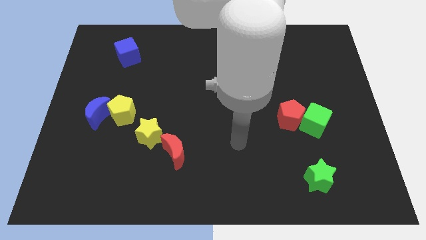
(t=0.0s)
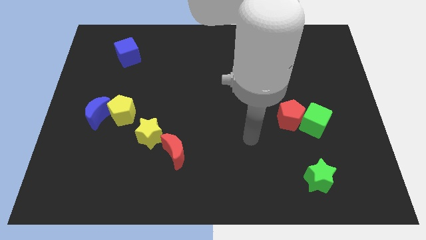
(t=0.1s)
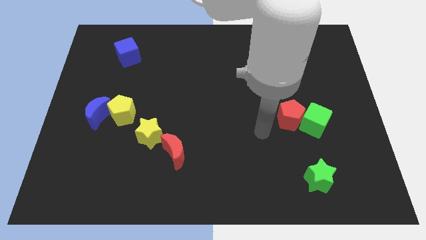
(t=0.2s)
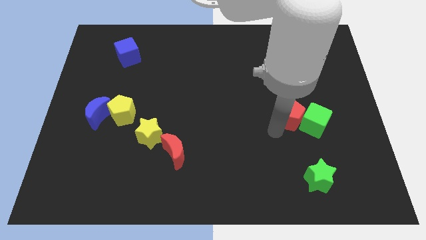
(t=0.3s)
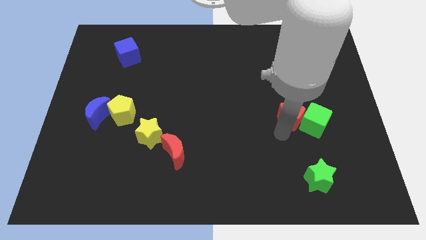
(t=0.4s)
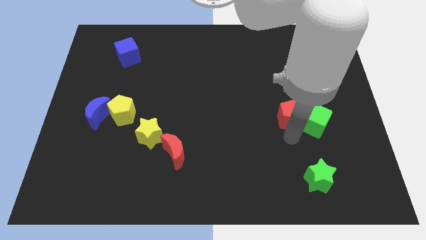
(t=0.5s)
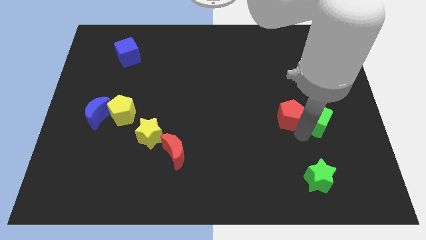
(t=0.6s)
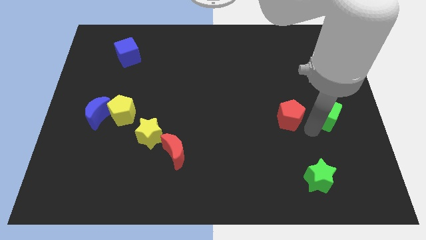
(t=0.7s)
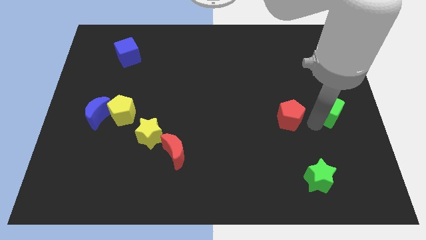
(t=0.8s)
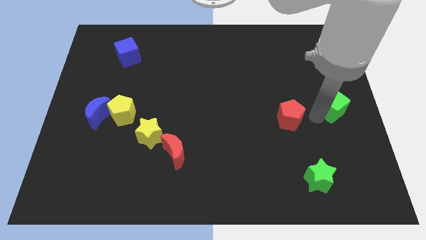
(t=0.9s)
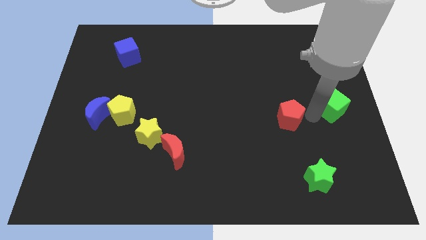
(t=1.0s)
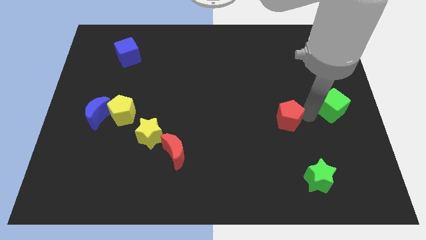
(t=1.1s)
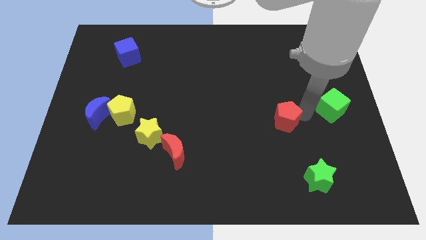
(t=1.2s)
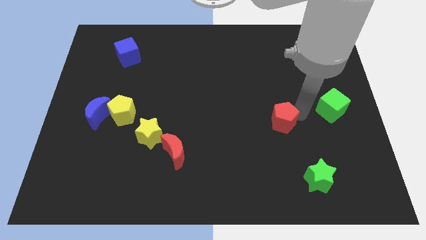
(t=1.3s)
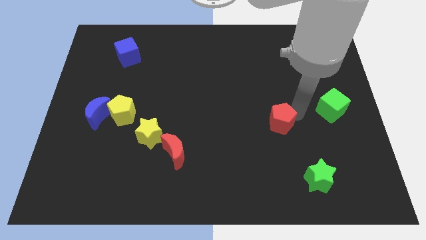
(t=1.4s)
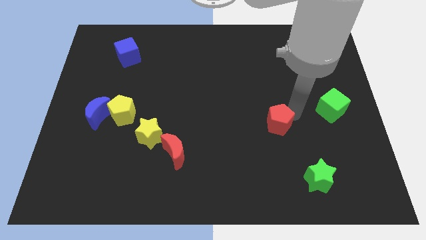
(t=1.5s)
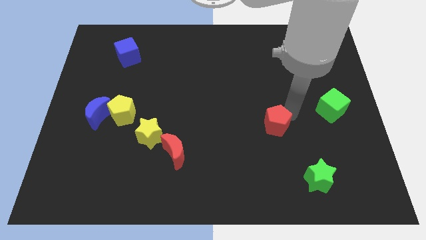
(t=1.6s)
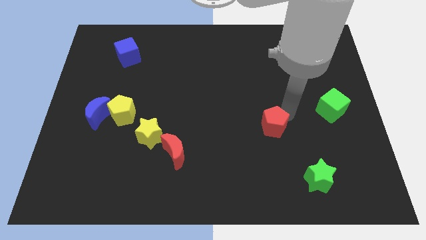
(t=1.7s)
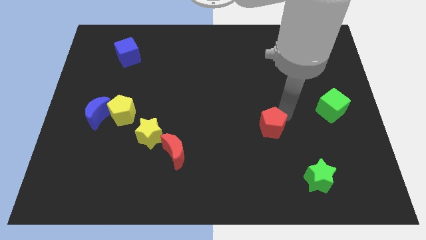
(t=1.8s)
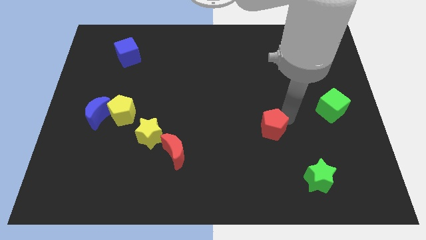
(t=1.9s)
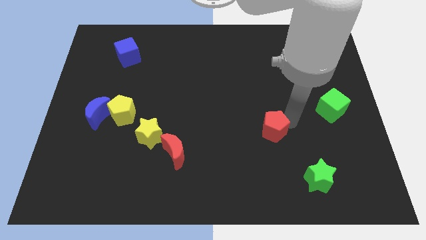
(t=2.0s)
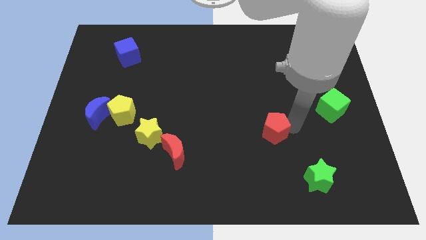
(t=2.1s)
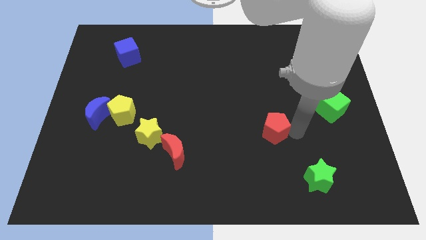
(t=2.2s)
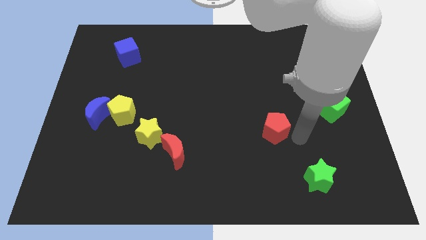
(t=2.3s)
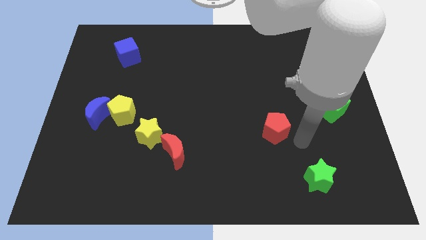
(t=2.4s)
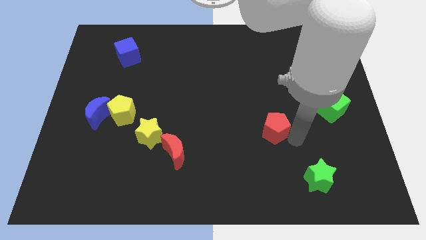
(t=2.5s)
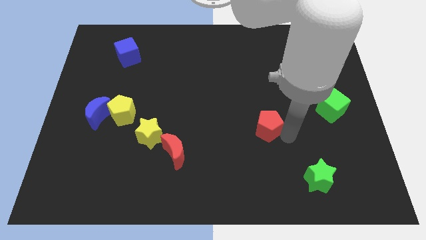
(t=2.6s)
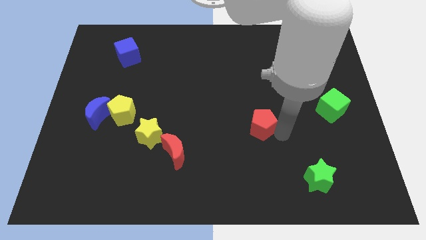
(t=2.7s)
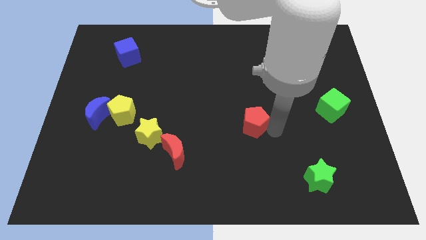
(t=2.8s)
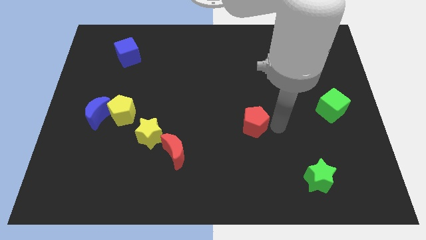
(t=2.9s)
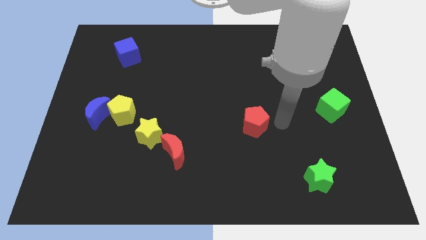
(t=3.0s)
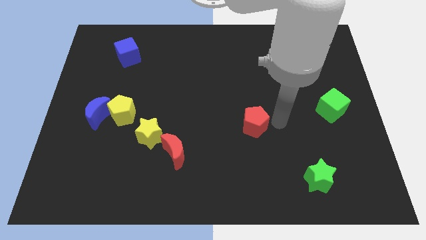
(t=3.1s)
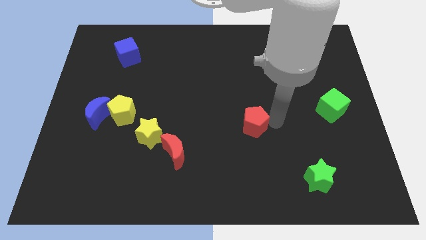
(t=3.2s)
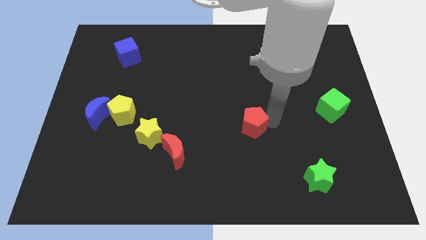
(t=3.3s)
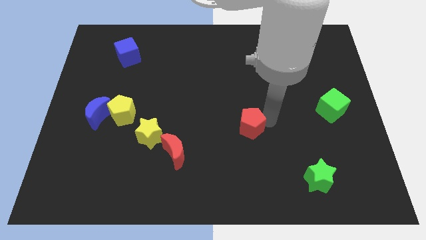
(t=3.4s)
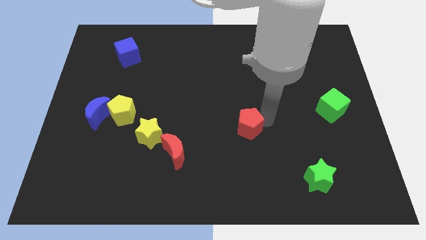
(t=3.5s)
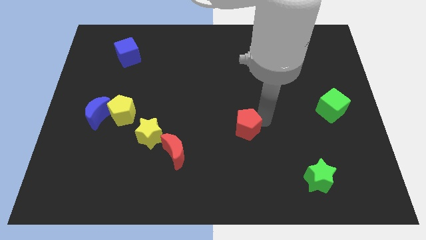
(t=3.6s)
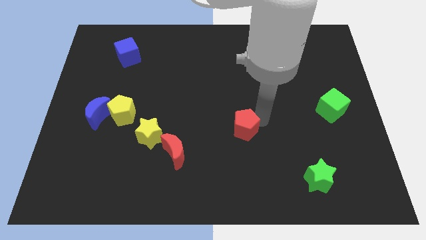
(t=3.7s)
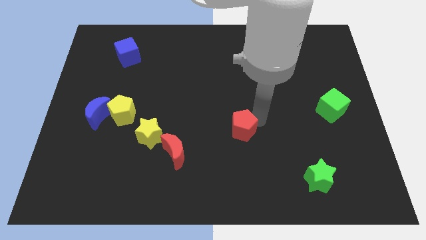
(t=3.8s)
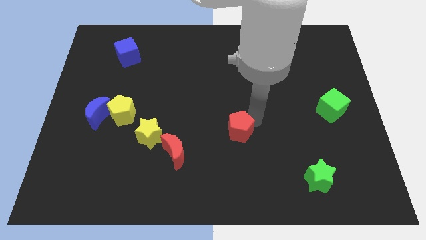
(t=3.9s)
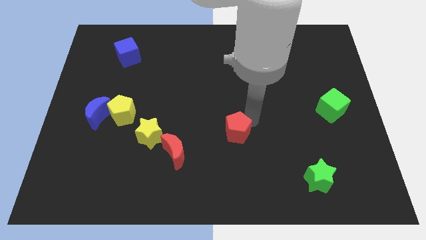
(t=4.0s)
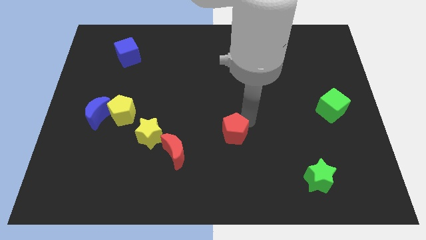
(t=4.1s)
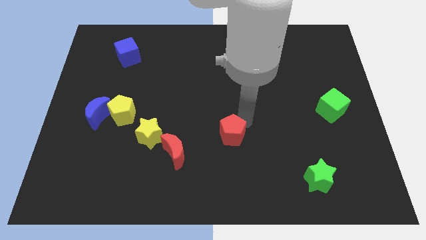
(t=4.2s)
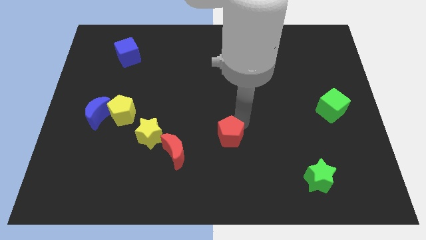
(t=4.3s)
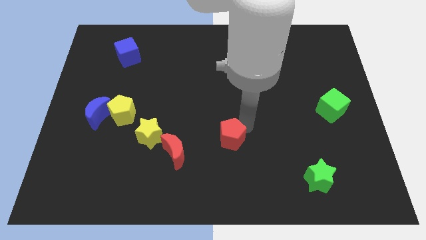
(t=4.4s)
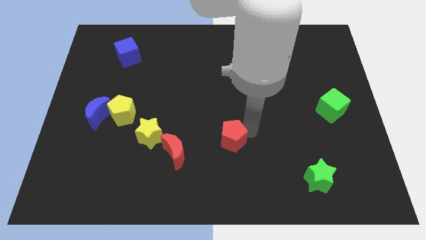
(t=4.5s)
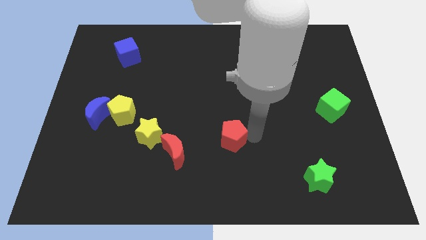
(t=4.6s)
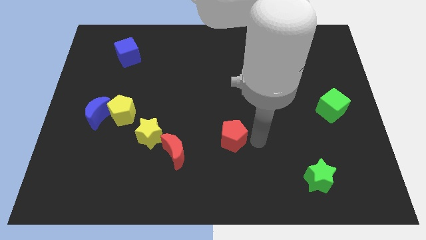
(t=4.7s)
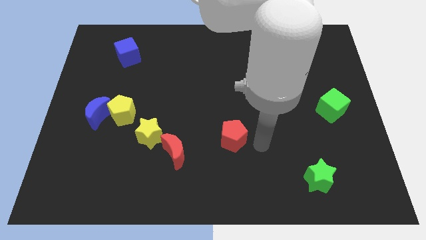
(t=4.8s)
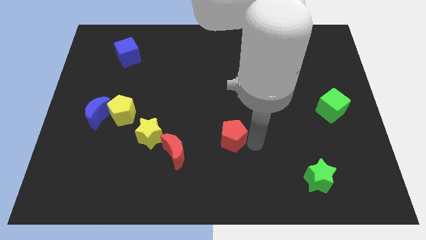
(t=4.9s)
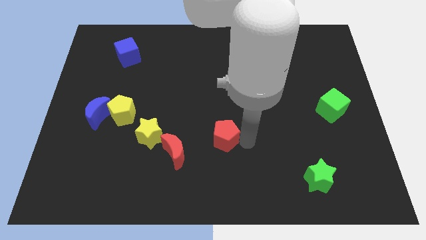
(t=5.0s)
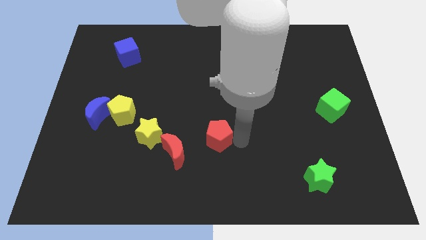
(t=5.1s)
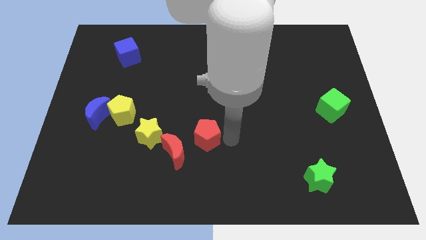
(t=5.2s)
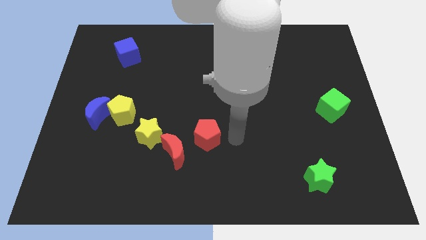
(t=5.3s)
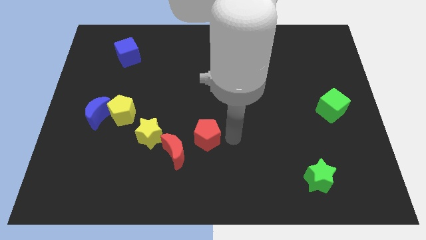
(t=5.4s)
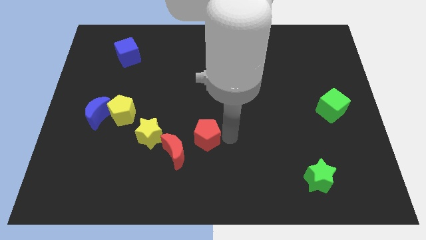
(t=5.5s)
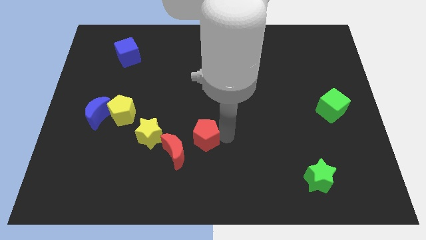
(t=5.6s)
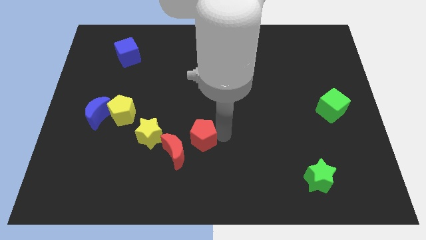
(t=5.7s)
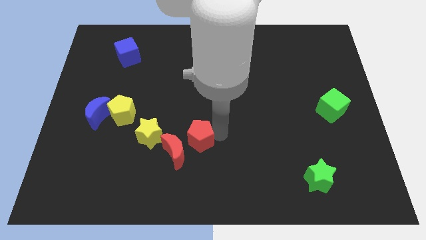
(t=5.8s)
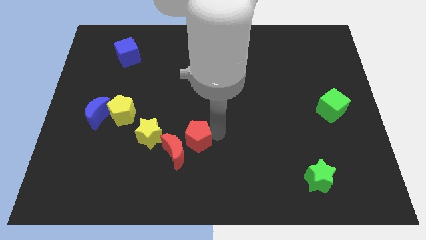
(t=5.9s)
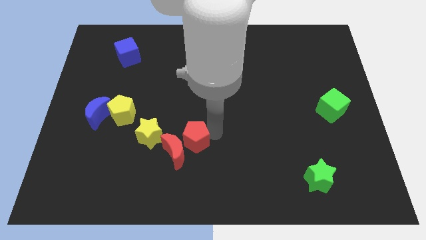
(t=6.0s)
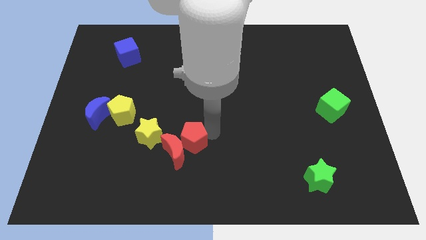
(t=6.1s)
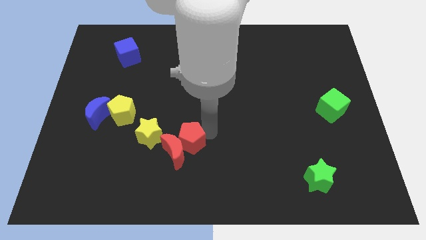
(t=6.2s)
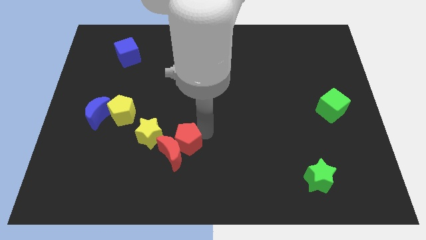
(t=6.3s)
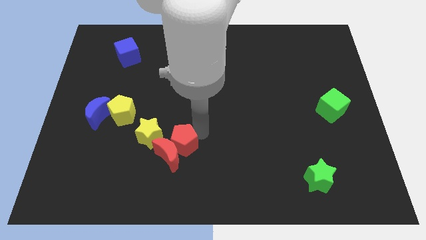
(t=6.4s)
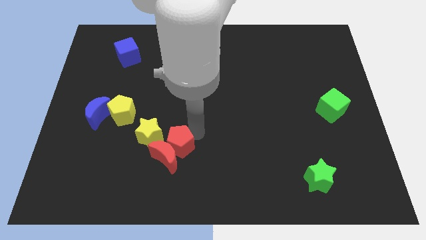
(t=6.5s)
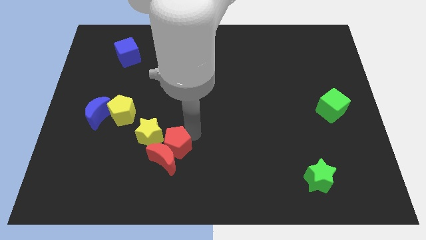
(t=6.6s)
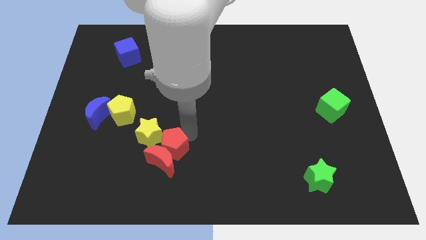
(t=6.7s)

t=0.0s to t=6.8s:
move the red pentagon next to the yellow star
